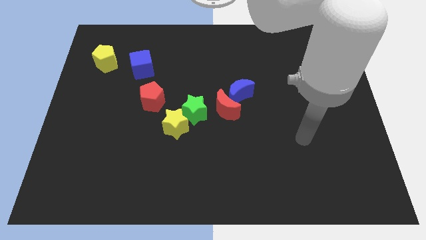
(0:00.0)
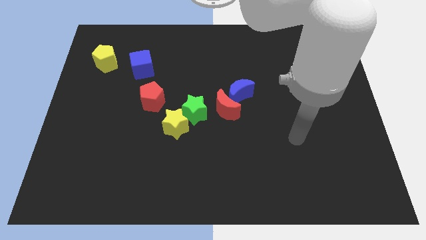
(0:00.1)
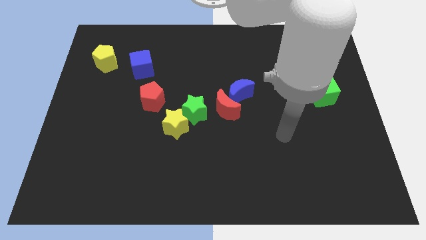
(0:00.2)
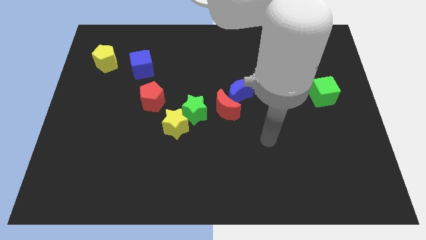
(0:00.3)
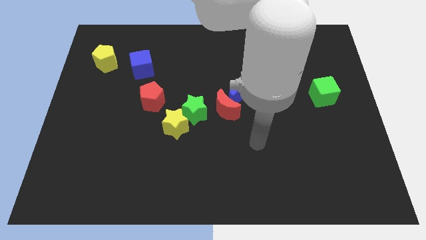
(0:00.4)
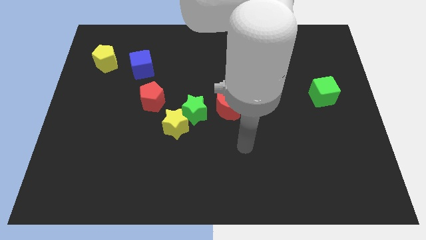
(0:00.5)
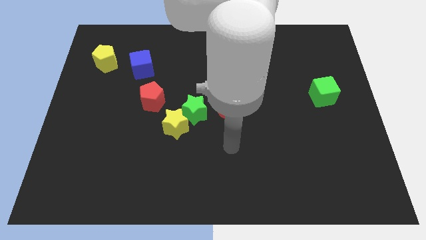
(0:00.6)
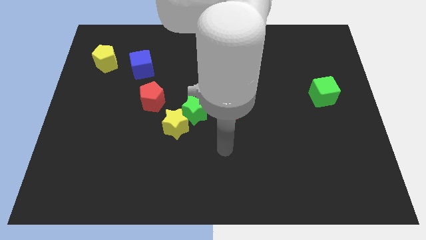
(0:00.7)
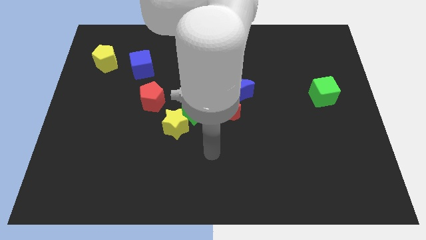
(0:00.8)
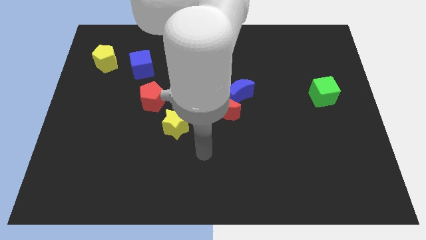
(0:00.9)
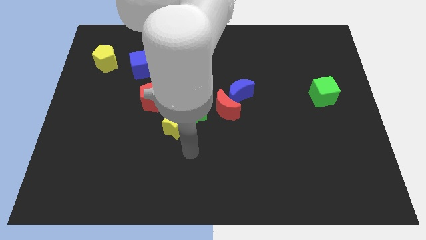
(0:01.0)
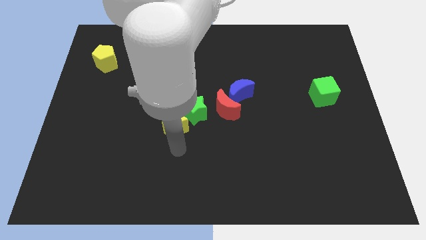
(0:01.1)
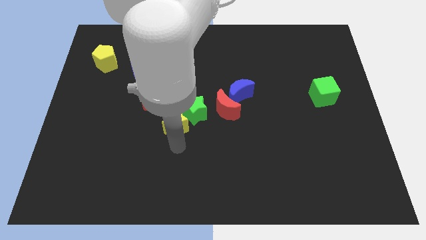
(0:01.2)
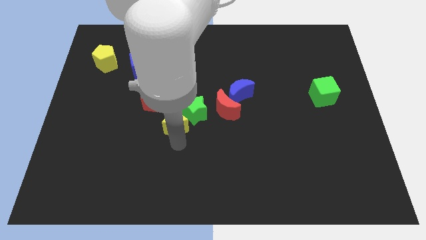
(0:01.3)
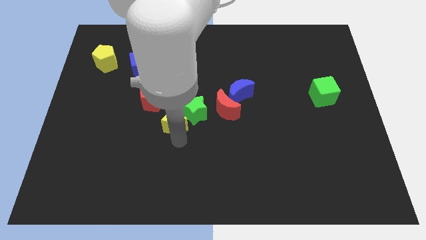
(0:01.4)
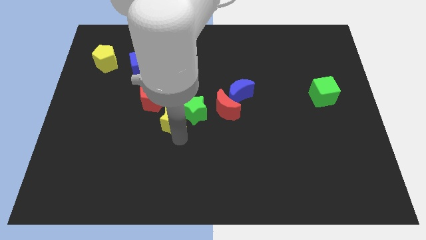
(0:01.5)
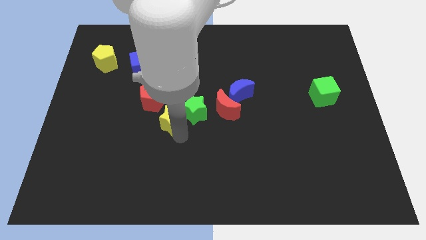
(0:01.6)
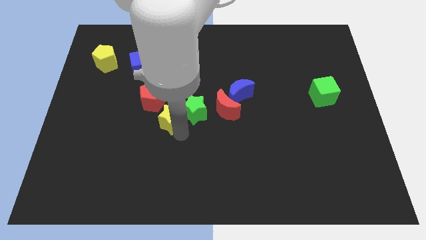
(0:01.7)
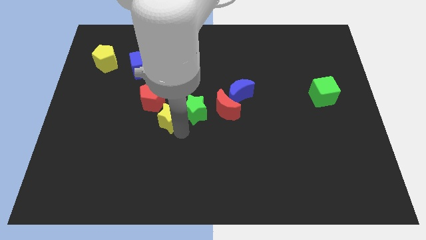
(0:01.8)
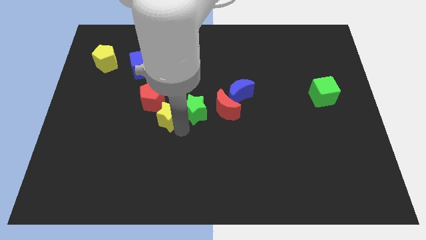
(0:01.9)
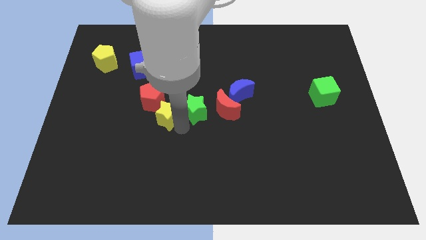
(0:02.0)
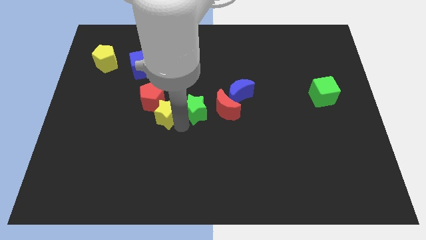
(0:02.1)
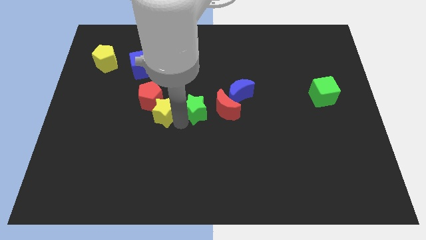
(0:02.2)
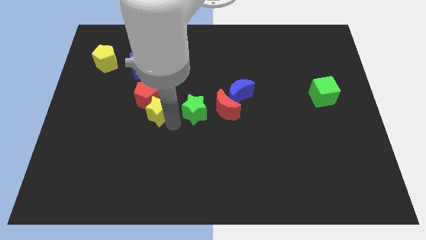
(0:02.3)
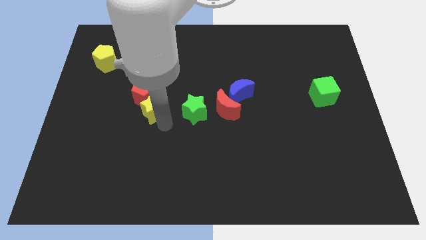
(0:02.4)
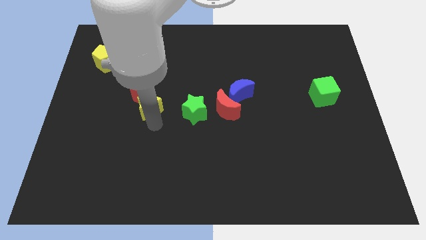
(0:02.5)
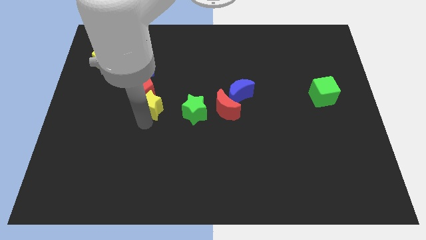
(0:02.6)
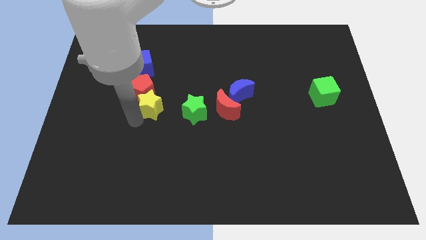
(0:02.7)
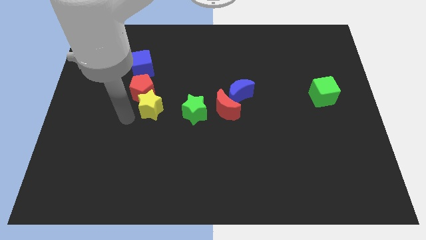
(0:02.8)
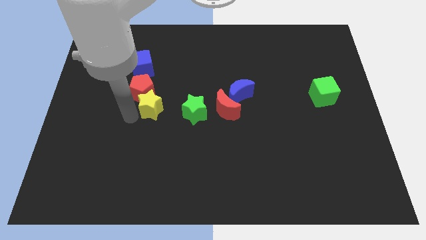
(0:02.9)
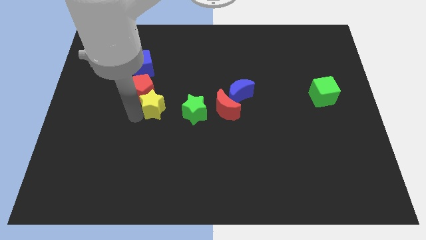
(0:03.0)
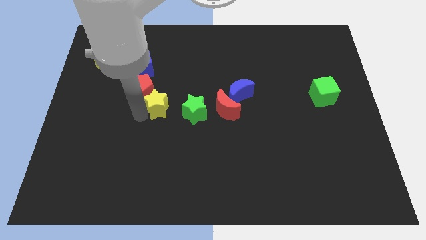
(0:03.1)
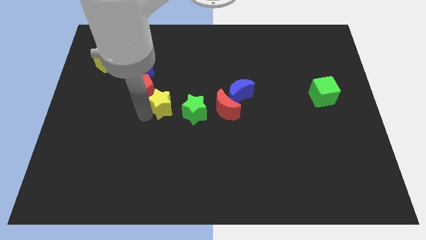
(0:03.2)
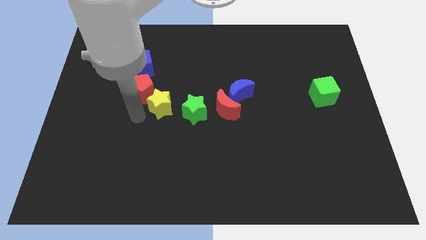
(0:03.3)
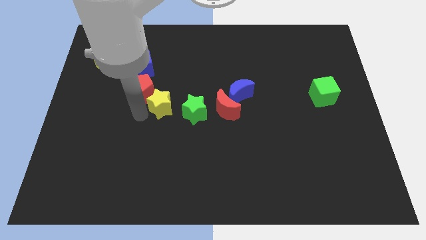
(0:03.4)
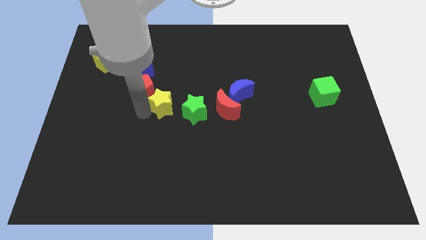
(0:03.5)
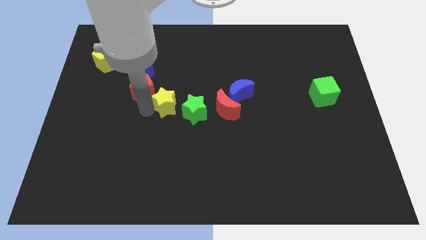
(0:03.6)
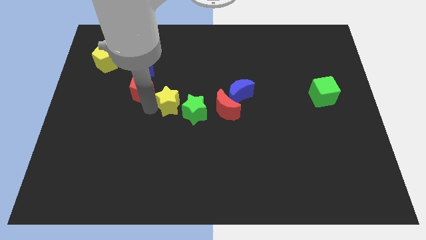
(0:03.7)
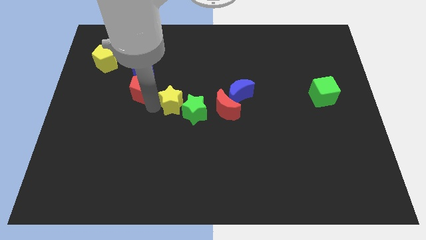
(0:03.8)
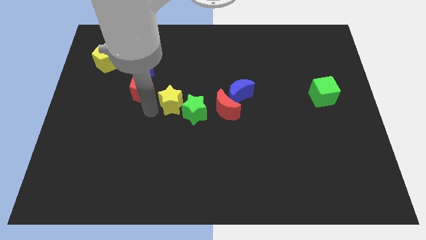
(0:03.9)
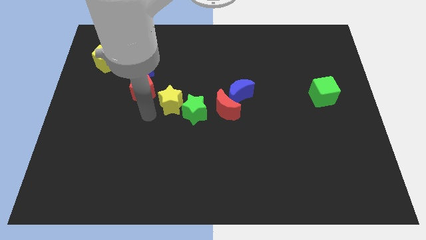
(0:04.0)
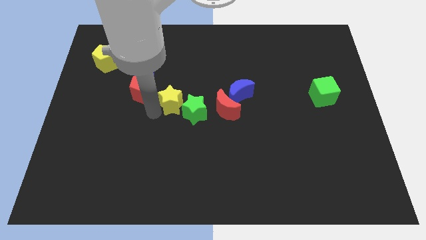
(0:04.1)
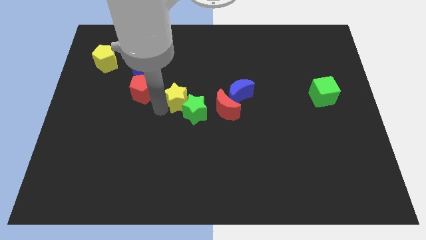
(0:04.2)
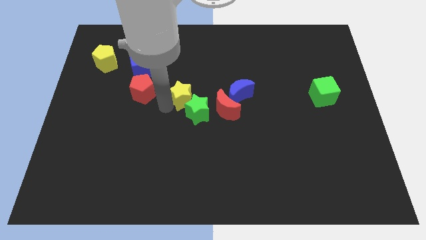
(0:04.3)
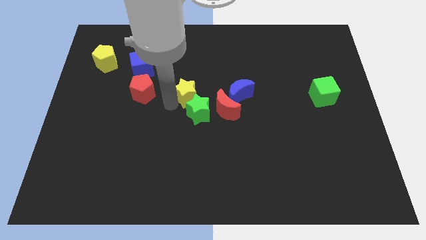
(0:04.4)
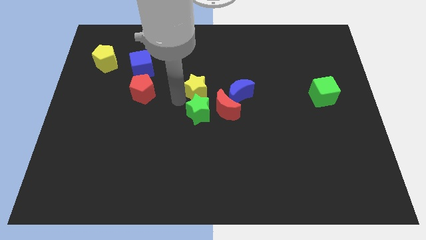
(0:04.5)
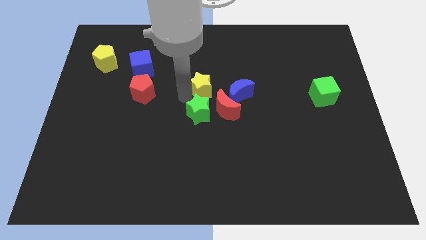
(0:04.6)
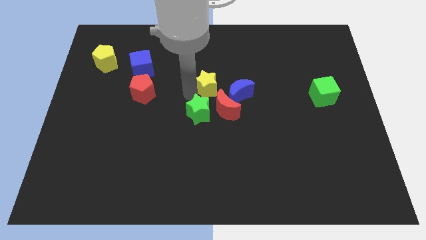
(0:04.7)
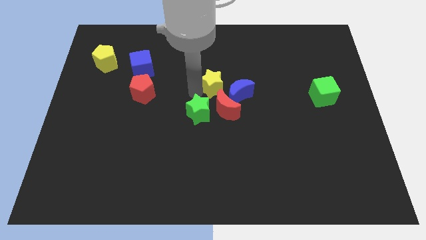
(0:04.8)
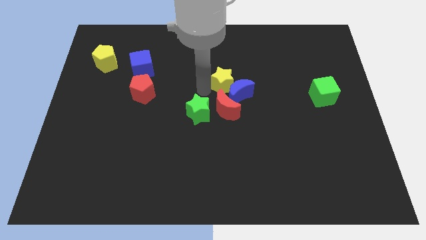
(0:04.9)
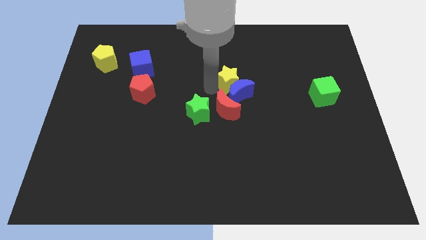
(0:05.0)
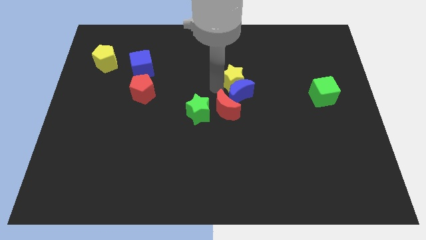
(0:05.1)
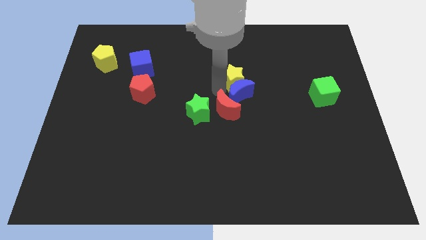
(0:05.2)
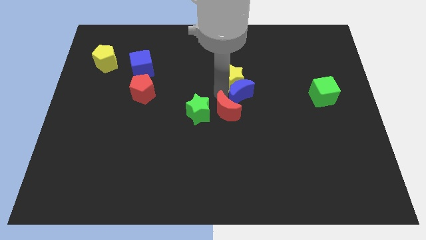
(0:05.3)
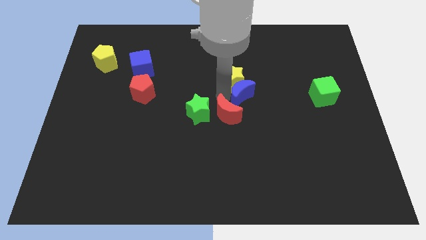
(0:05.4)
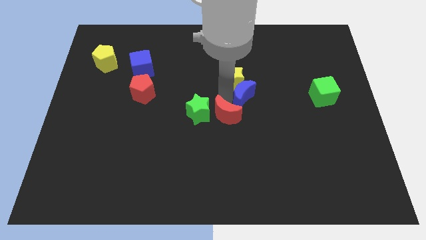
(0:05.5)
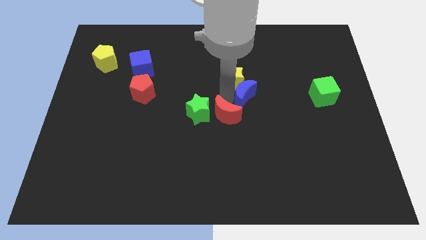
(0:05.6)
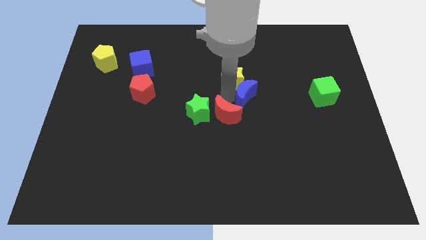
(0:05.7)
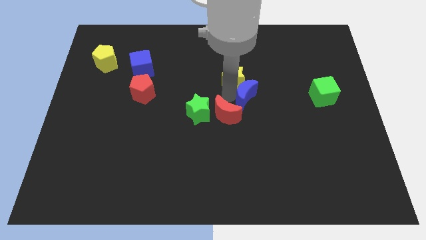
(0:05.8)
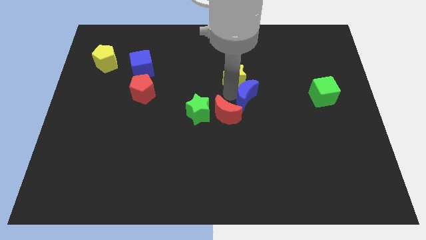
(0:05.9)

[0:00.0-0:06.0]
push the yellow star diagonally upwards and right

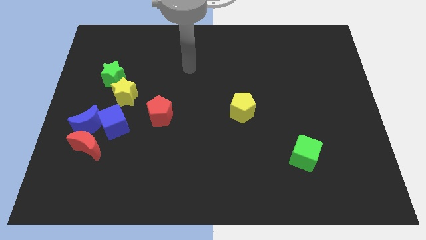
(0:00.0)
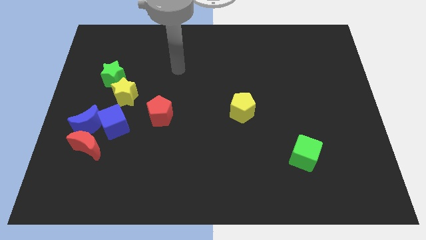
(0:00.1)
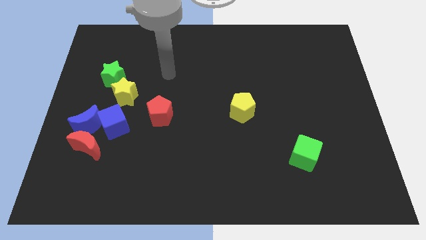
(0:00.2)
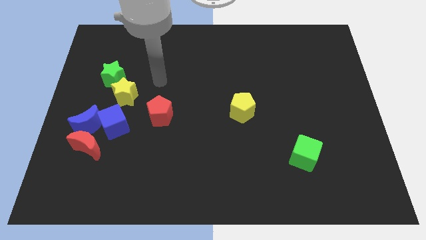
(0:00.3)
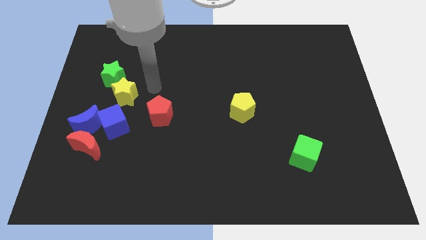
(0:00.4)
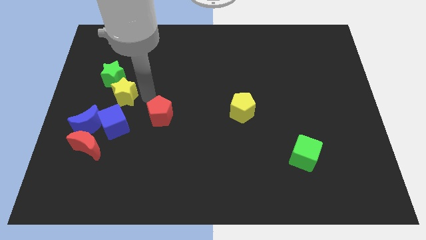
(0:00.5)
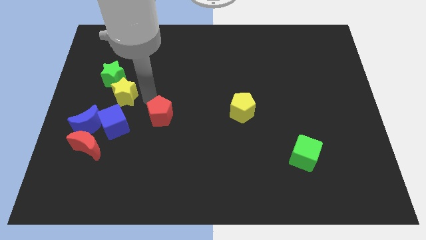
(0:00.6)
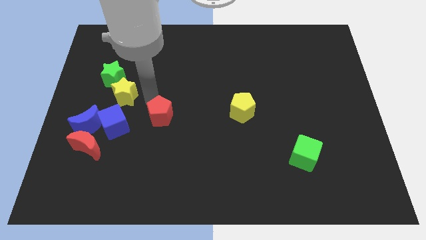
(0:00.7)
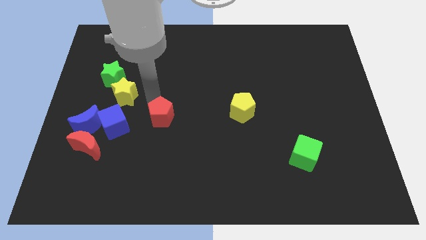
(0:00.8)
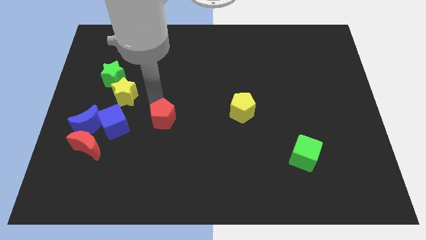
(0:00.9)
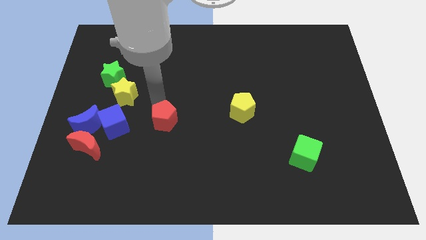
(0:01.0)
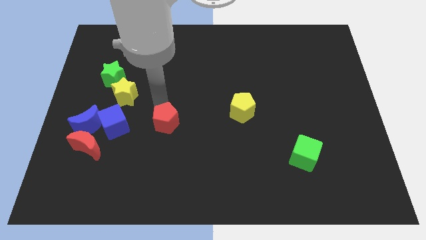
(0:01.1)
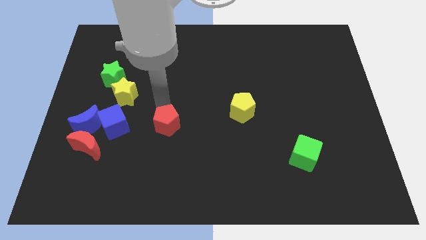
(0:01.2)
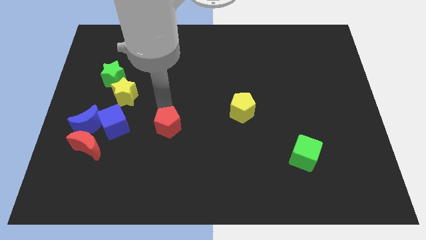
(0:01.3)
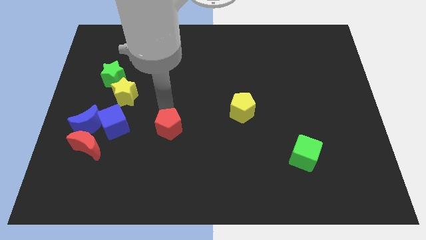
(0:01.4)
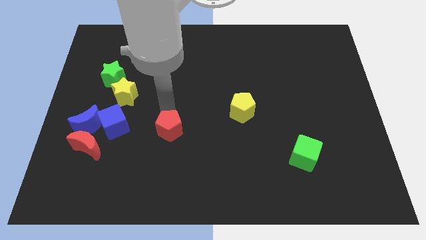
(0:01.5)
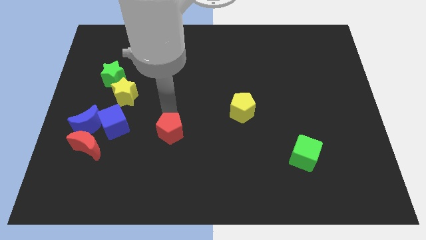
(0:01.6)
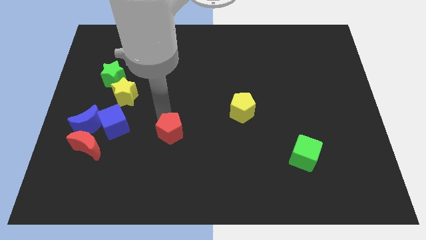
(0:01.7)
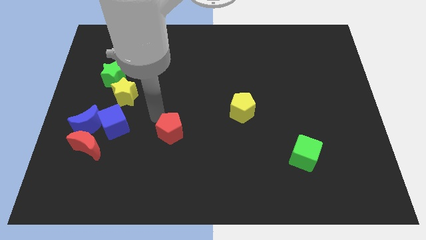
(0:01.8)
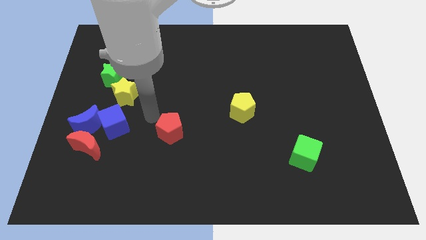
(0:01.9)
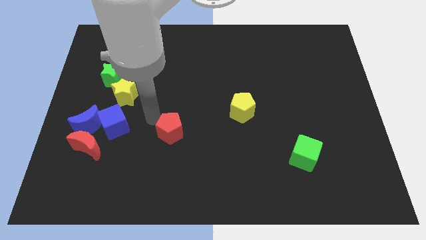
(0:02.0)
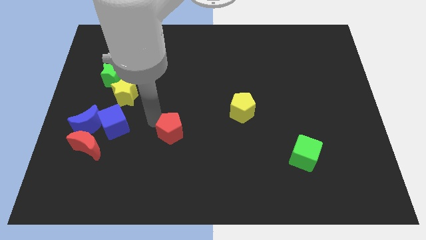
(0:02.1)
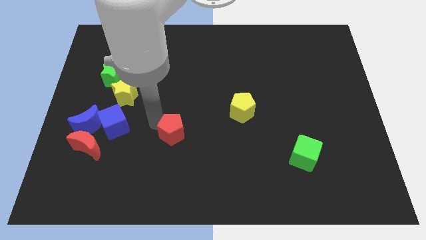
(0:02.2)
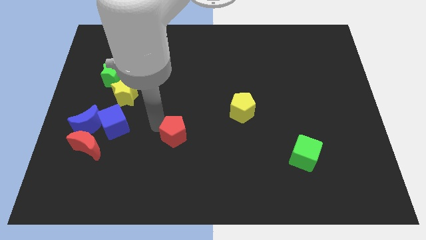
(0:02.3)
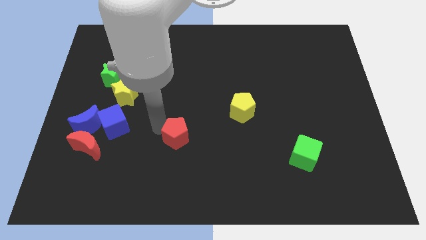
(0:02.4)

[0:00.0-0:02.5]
move the red pentagon a little bit diagonally downwards and to the right
